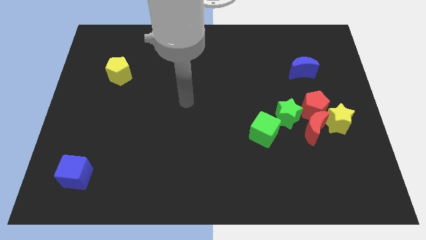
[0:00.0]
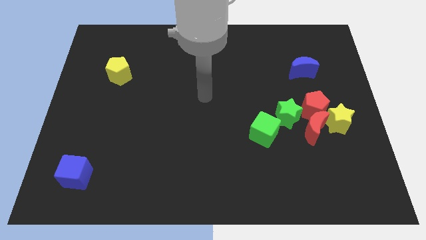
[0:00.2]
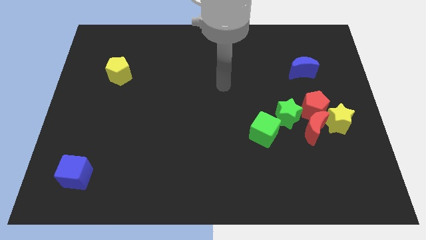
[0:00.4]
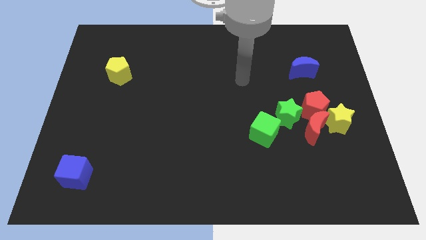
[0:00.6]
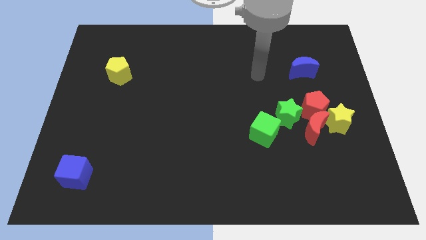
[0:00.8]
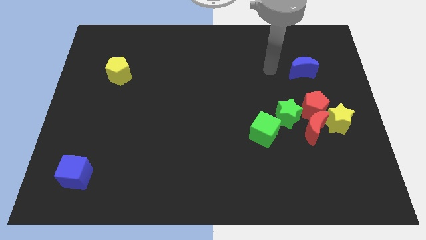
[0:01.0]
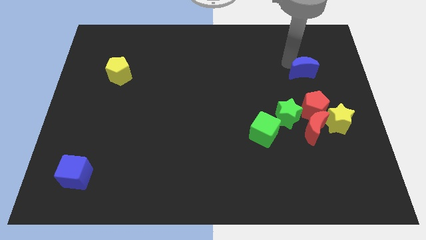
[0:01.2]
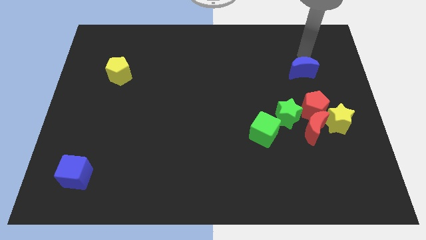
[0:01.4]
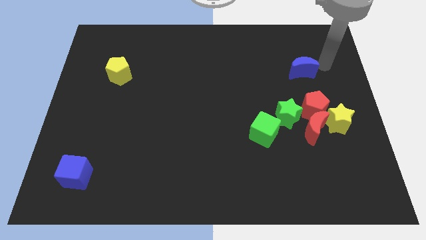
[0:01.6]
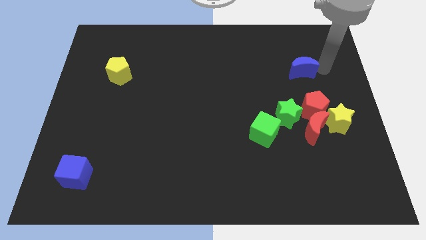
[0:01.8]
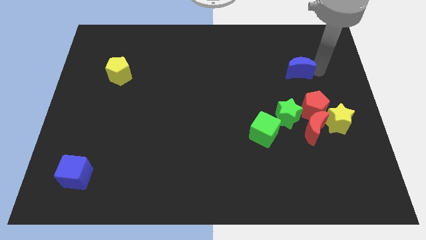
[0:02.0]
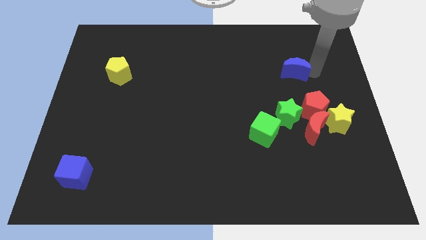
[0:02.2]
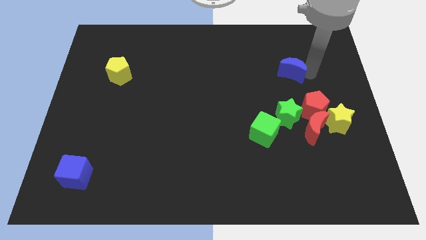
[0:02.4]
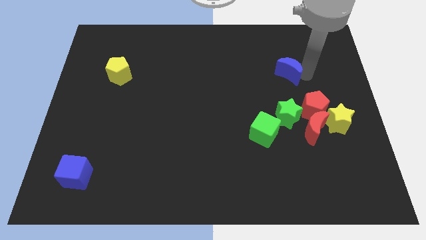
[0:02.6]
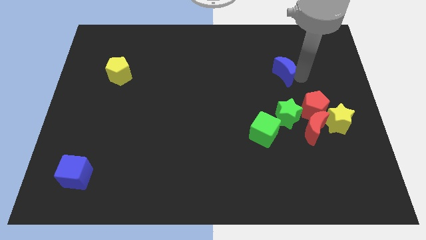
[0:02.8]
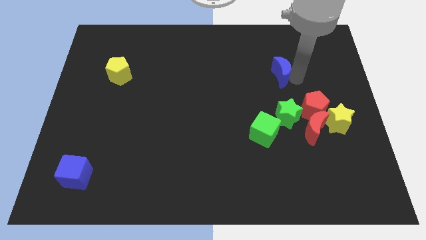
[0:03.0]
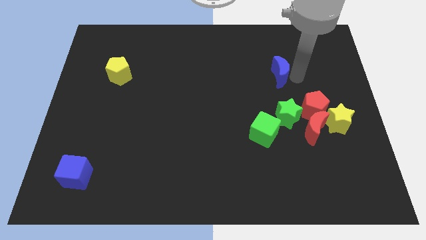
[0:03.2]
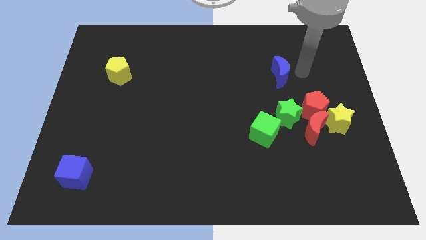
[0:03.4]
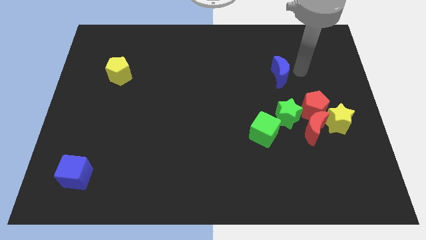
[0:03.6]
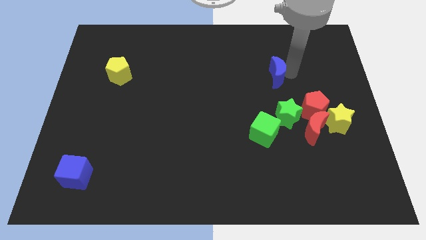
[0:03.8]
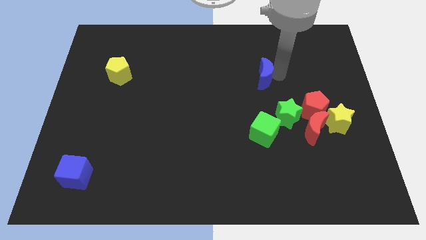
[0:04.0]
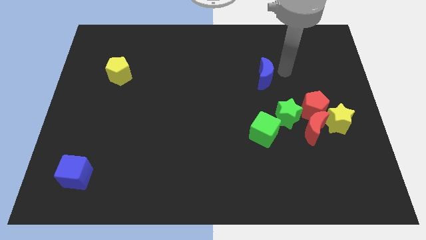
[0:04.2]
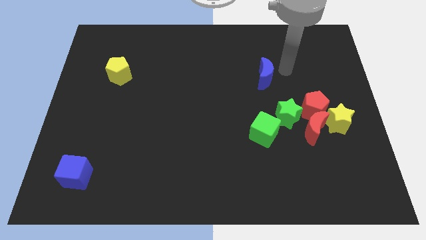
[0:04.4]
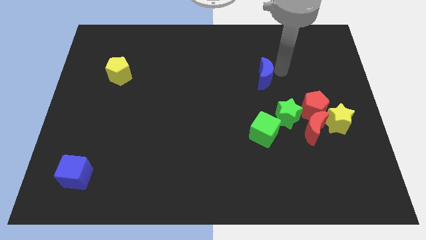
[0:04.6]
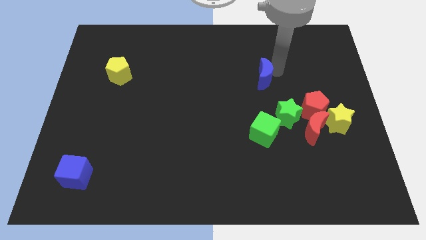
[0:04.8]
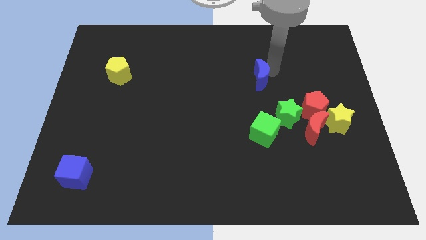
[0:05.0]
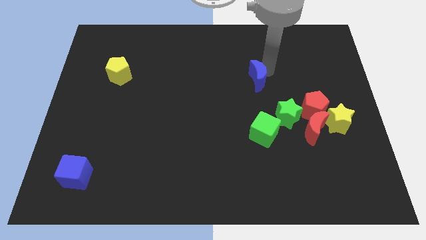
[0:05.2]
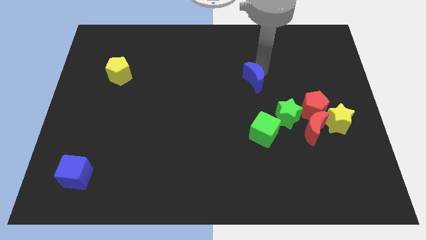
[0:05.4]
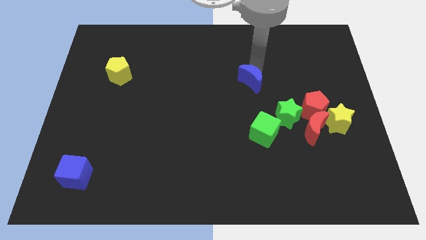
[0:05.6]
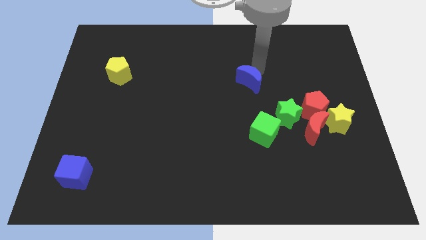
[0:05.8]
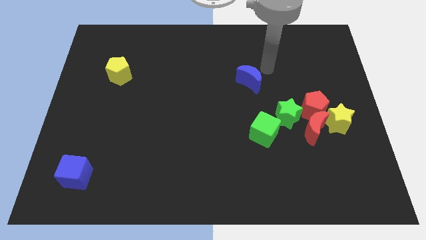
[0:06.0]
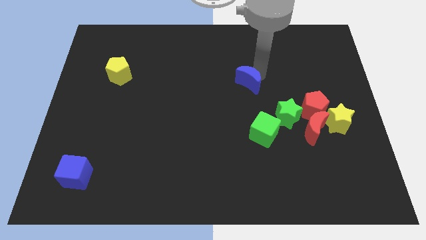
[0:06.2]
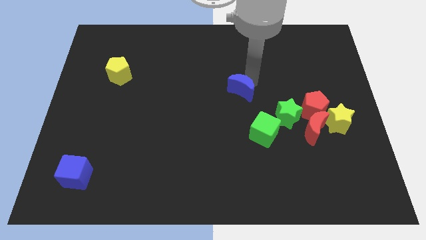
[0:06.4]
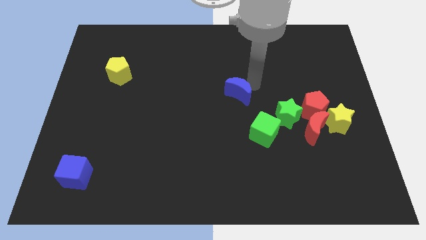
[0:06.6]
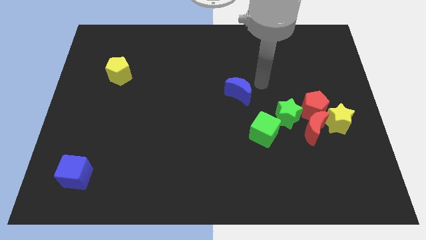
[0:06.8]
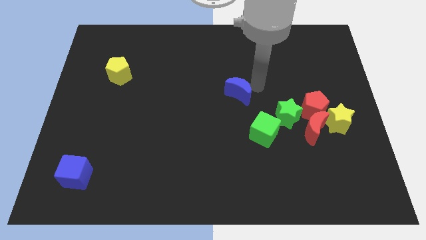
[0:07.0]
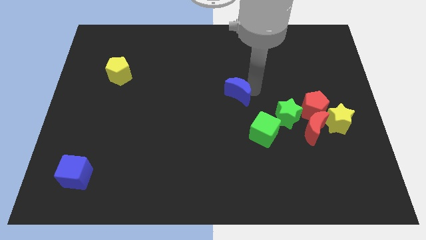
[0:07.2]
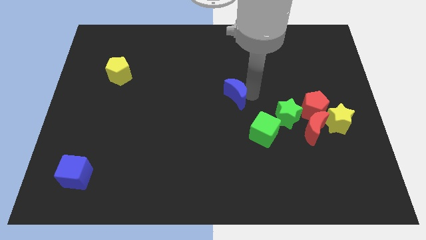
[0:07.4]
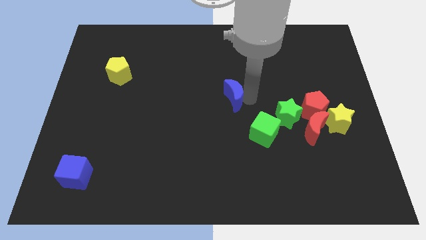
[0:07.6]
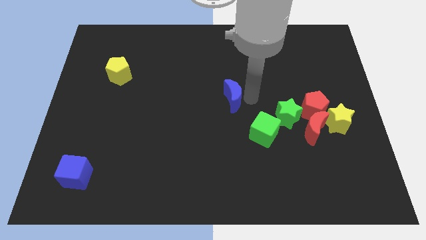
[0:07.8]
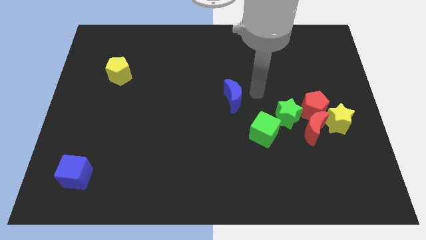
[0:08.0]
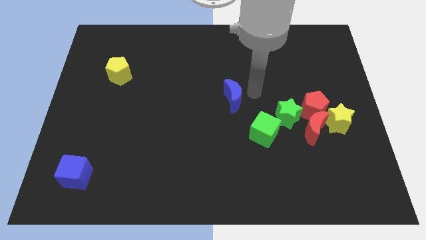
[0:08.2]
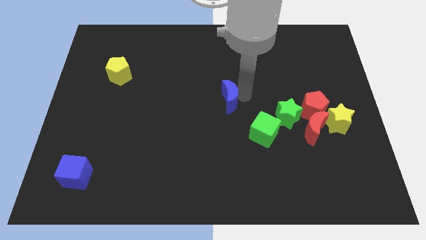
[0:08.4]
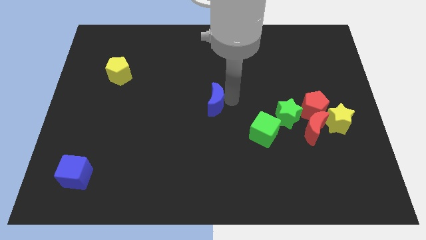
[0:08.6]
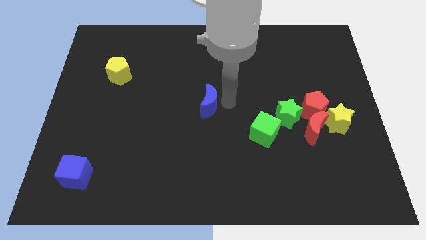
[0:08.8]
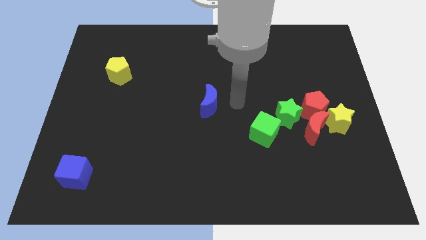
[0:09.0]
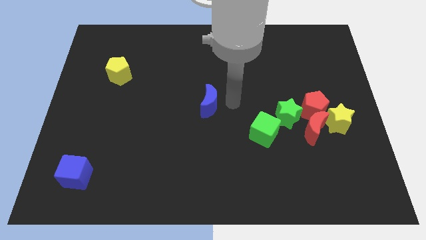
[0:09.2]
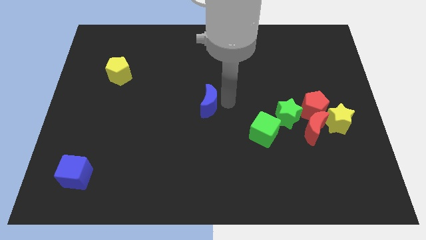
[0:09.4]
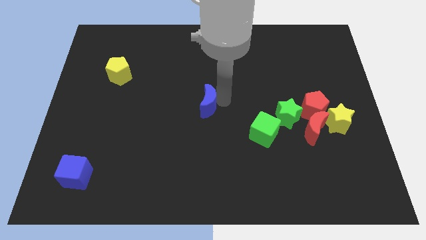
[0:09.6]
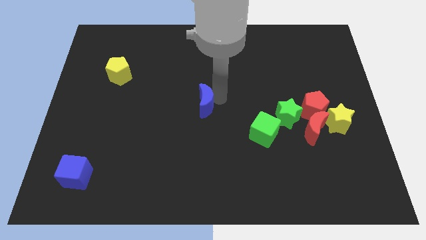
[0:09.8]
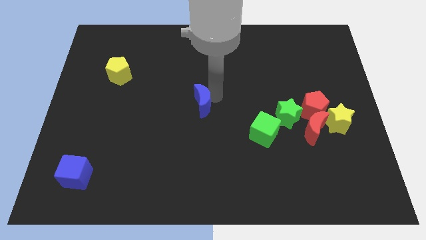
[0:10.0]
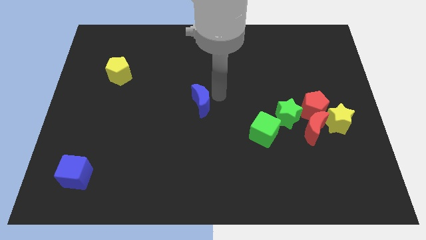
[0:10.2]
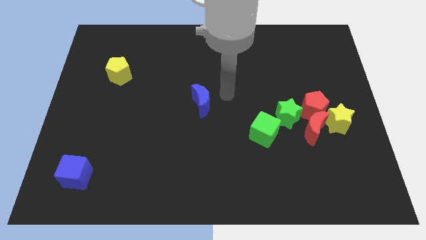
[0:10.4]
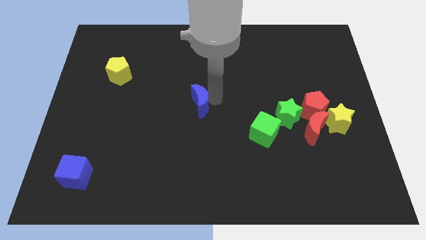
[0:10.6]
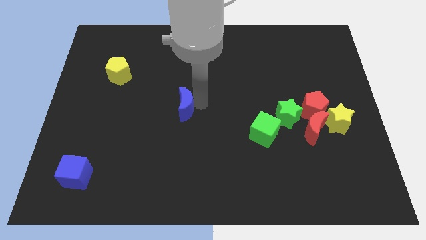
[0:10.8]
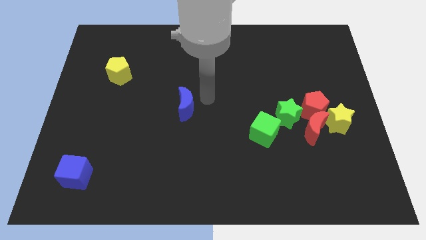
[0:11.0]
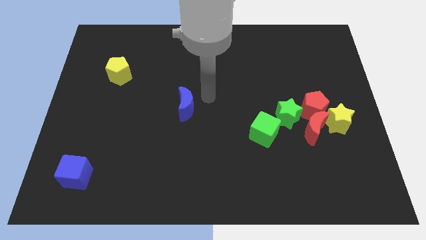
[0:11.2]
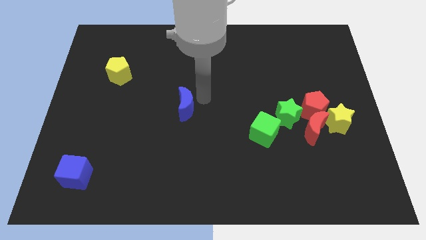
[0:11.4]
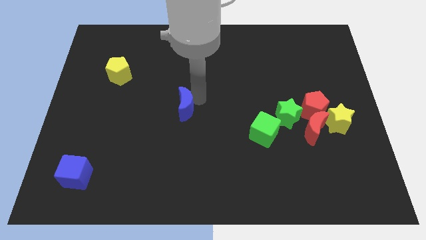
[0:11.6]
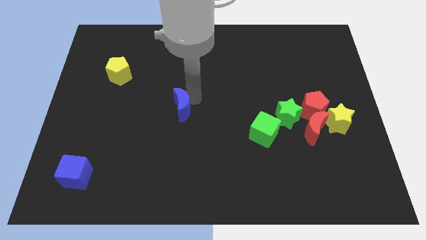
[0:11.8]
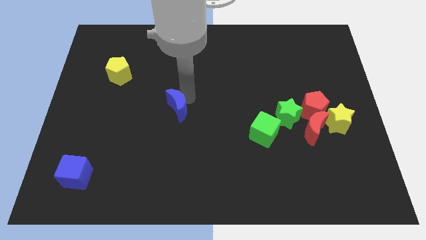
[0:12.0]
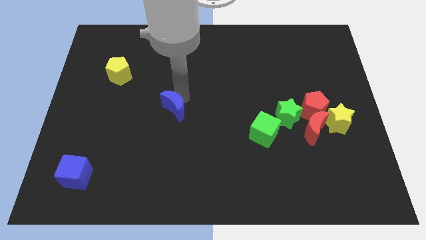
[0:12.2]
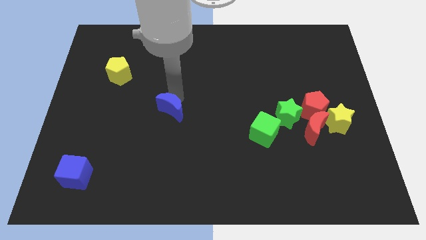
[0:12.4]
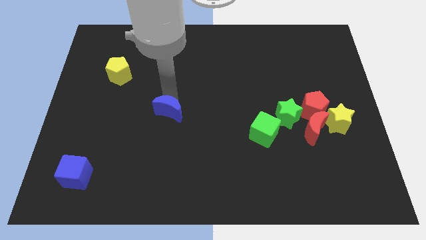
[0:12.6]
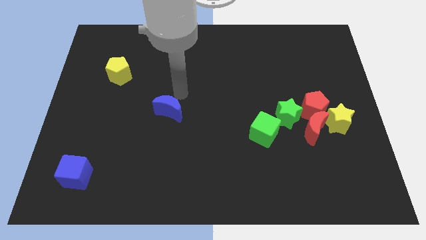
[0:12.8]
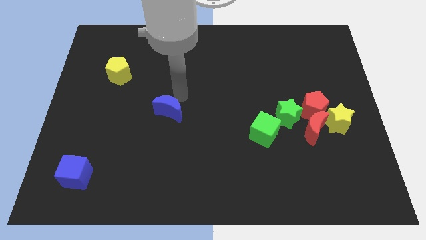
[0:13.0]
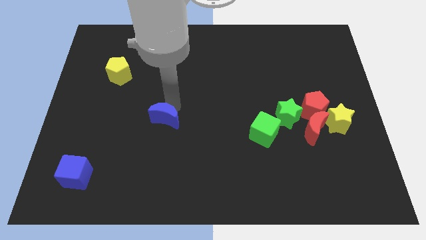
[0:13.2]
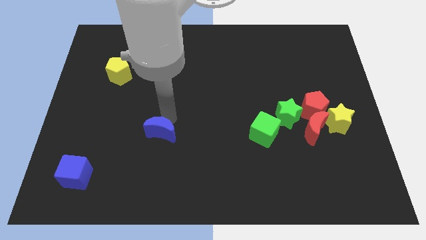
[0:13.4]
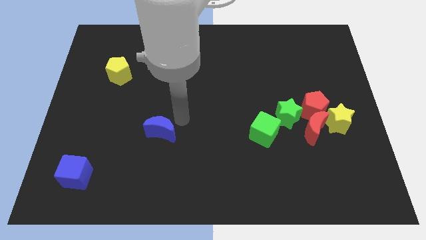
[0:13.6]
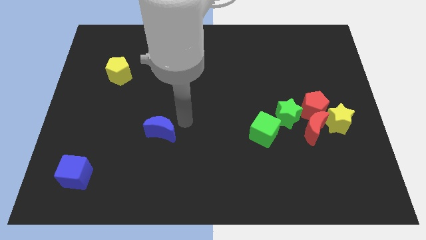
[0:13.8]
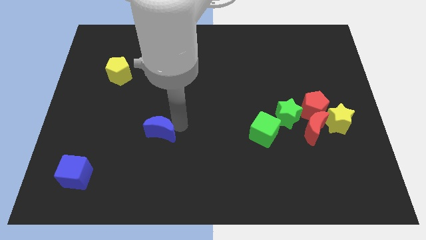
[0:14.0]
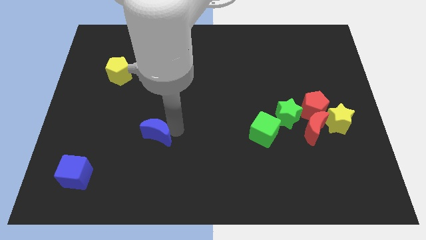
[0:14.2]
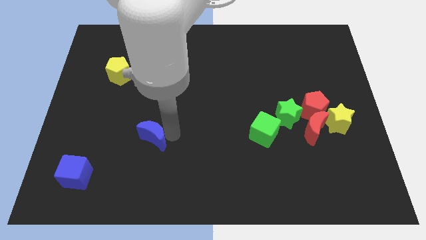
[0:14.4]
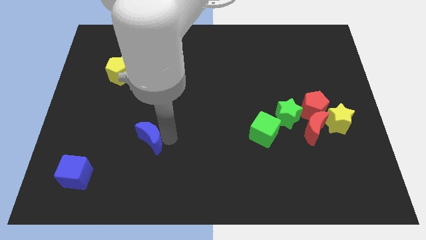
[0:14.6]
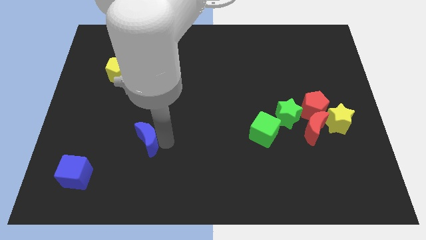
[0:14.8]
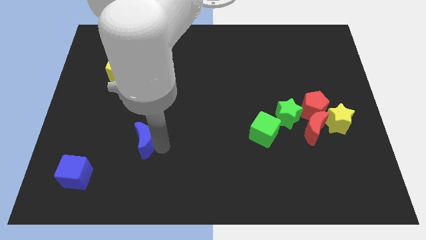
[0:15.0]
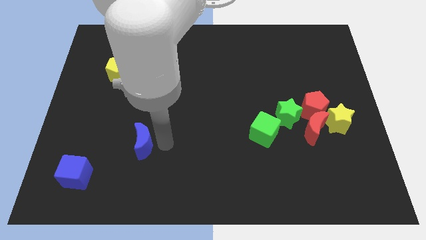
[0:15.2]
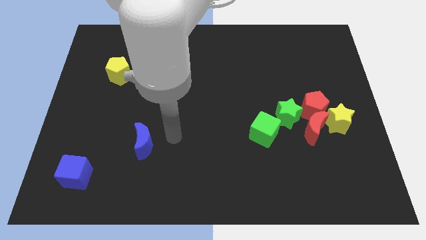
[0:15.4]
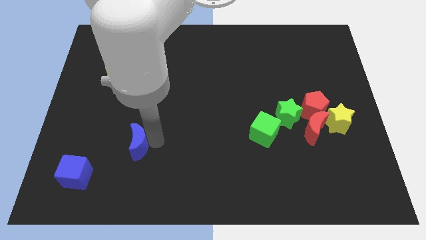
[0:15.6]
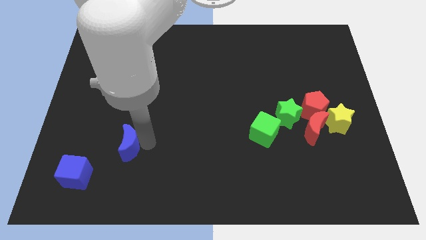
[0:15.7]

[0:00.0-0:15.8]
move the blue moon to the top right side of the blue cube
